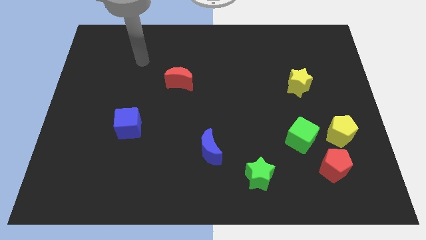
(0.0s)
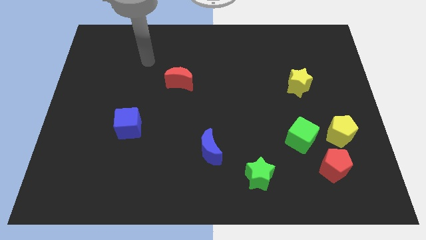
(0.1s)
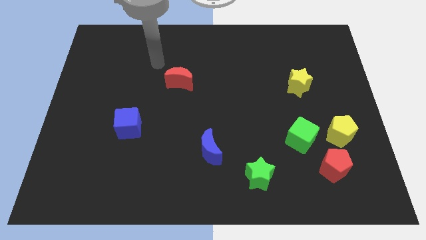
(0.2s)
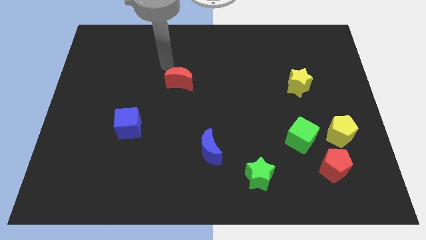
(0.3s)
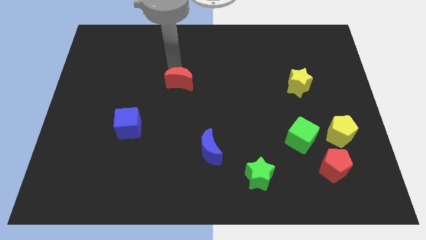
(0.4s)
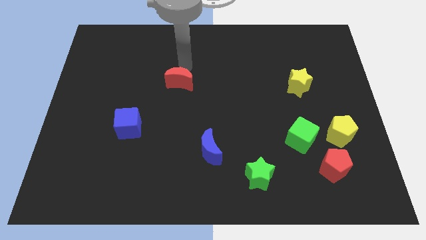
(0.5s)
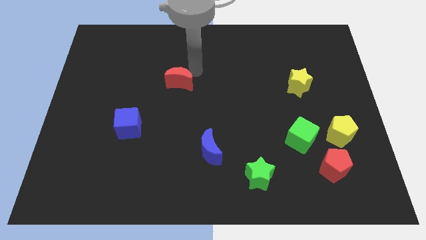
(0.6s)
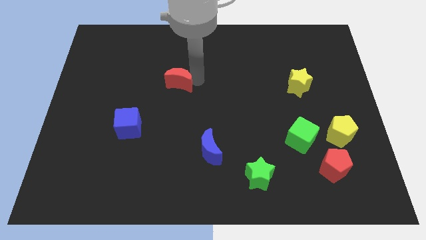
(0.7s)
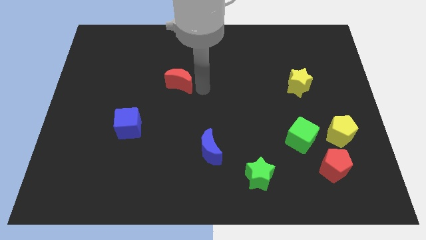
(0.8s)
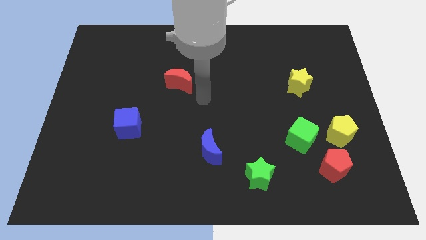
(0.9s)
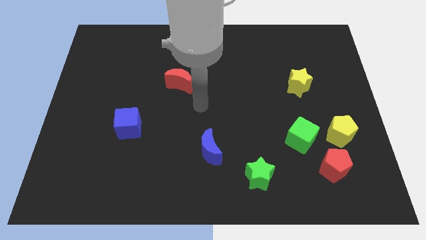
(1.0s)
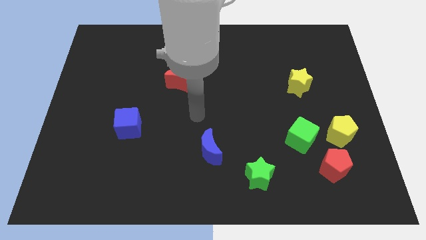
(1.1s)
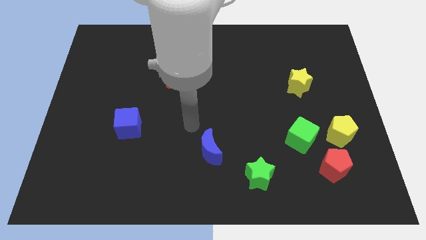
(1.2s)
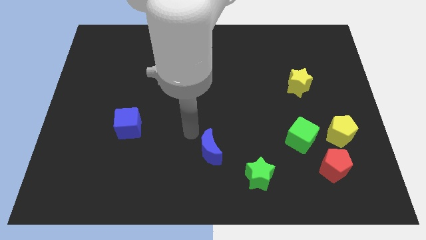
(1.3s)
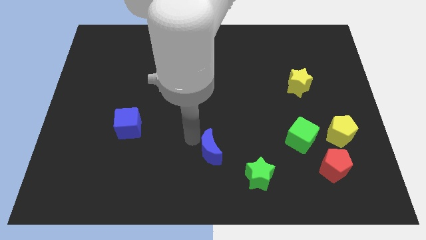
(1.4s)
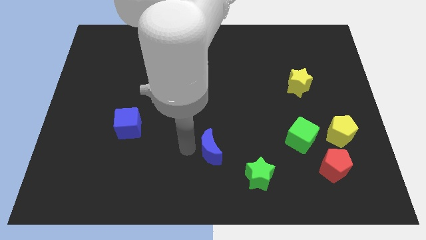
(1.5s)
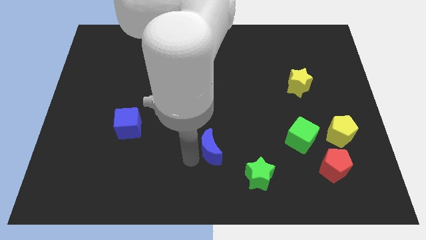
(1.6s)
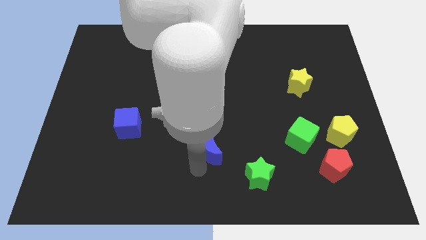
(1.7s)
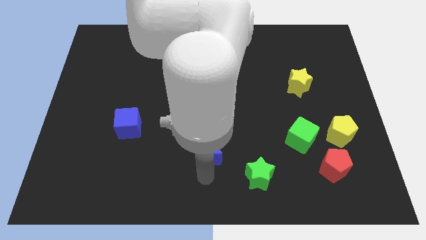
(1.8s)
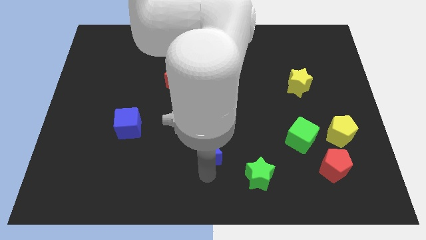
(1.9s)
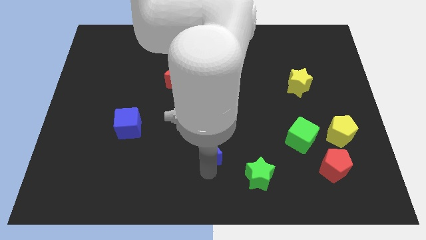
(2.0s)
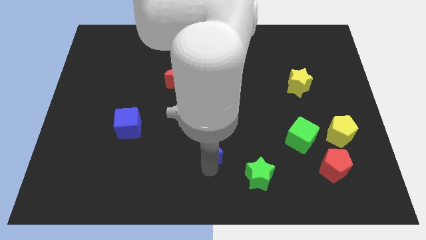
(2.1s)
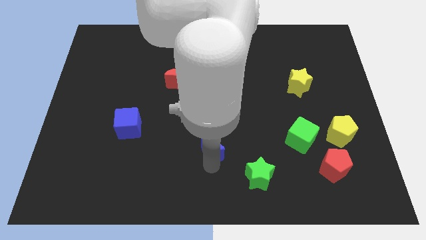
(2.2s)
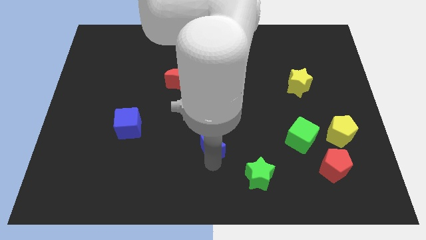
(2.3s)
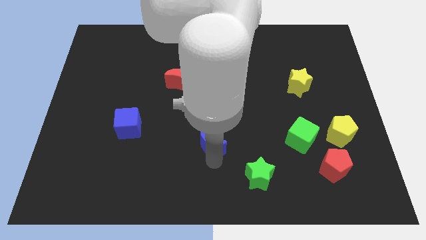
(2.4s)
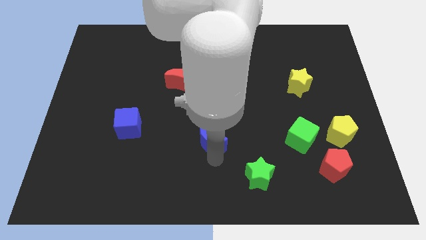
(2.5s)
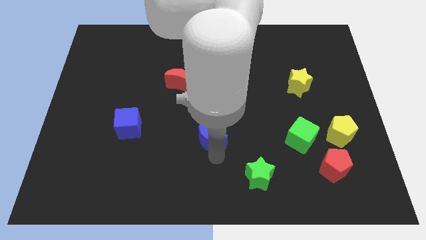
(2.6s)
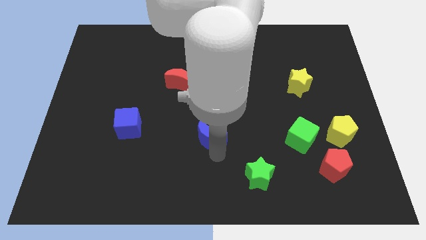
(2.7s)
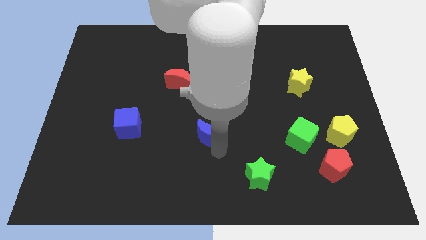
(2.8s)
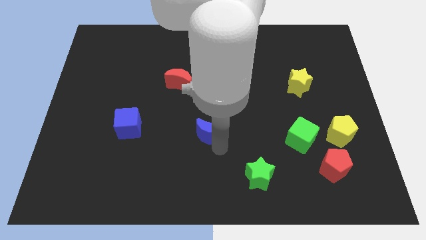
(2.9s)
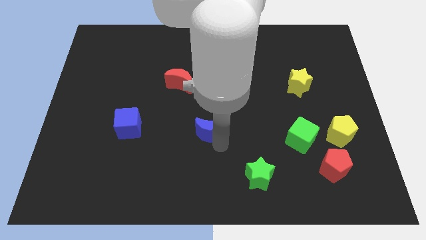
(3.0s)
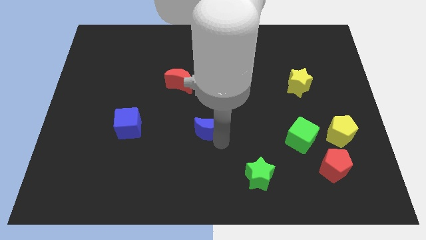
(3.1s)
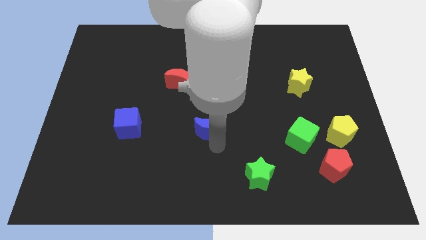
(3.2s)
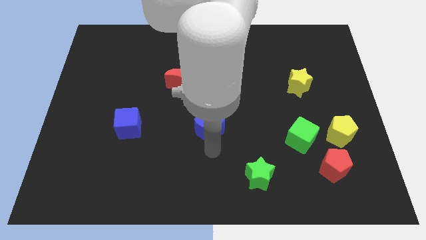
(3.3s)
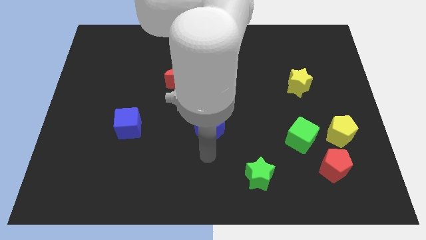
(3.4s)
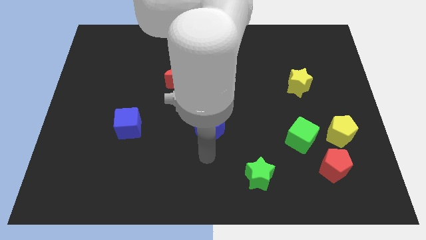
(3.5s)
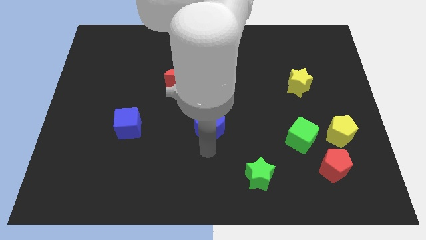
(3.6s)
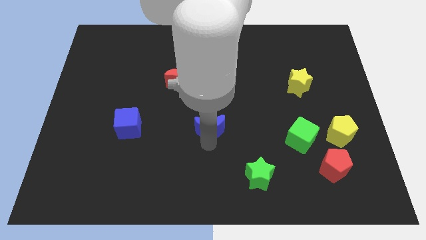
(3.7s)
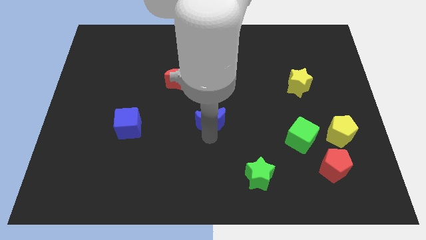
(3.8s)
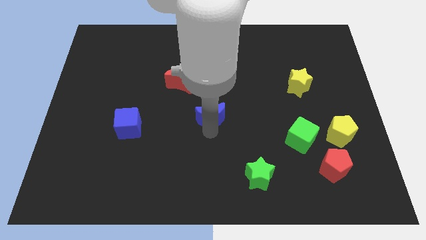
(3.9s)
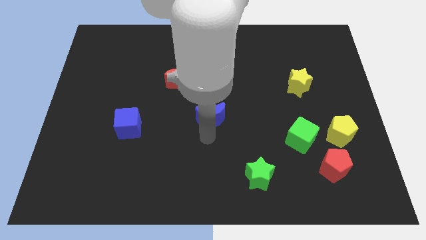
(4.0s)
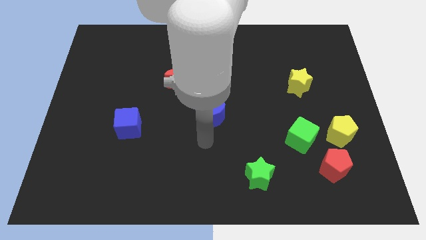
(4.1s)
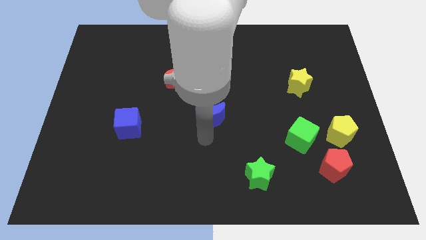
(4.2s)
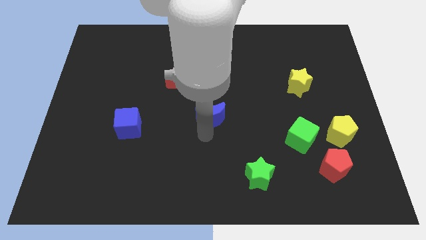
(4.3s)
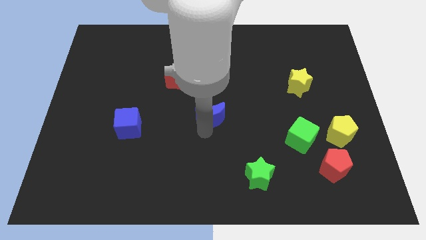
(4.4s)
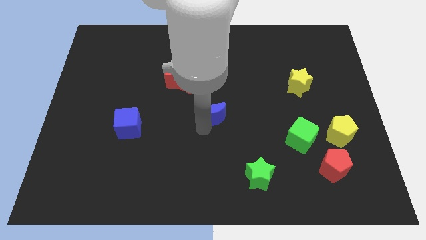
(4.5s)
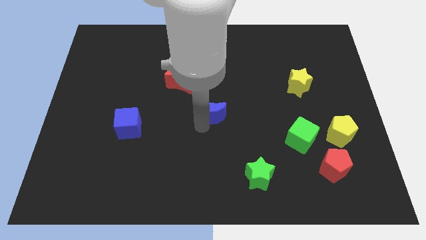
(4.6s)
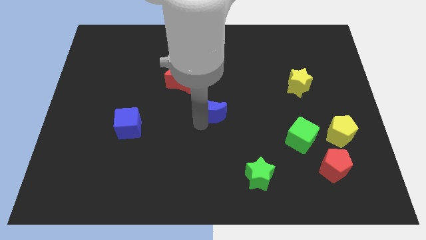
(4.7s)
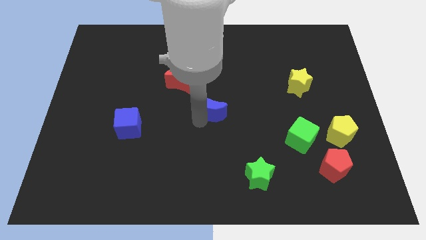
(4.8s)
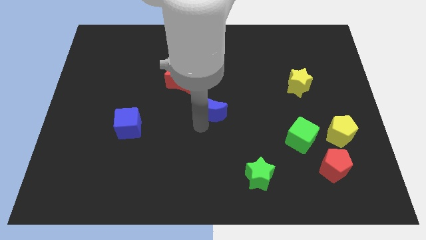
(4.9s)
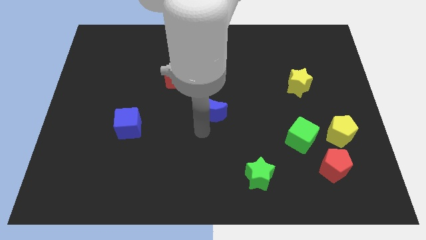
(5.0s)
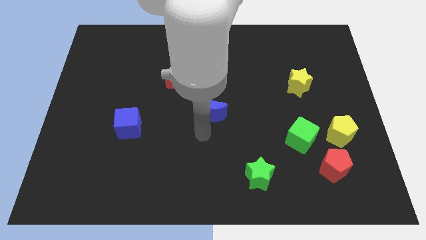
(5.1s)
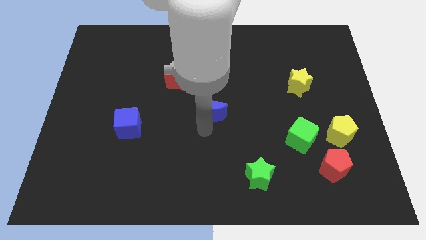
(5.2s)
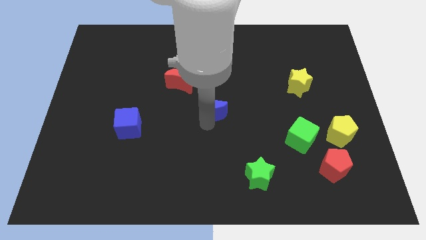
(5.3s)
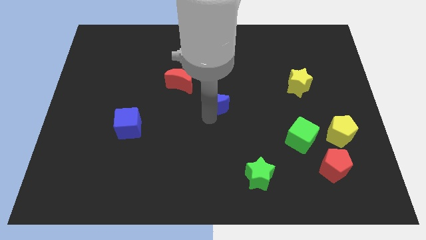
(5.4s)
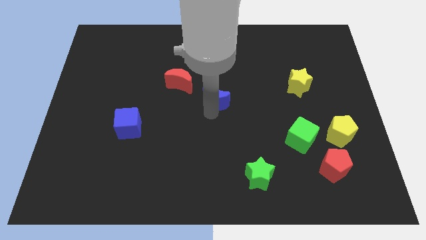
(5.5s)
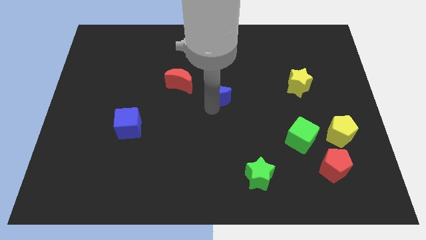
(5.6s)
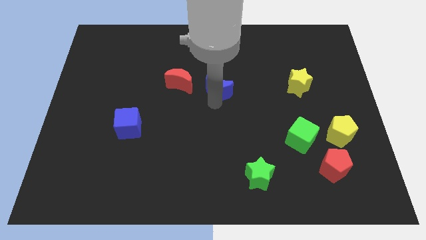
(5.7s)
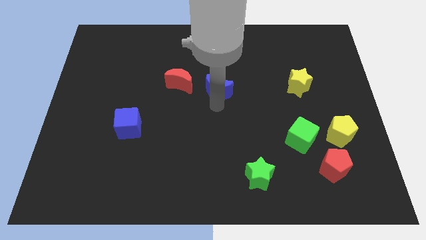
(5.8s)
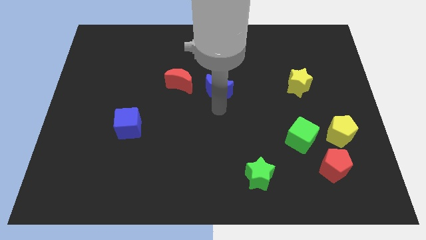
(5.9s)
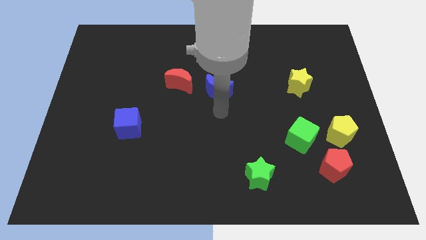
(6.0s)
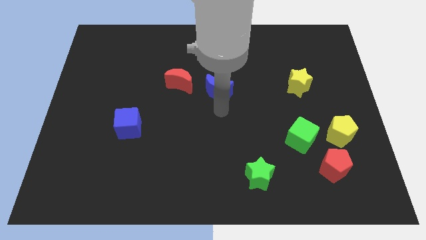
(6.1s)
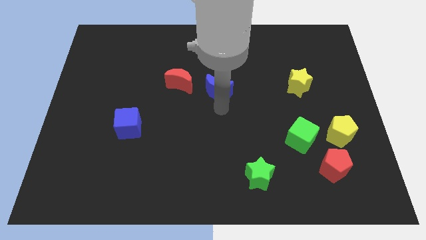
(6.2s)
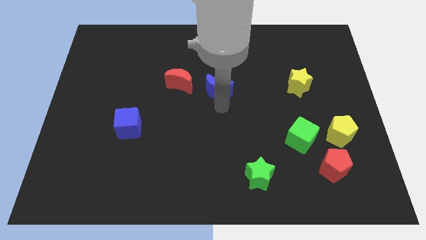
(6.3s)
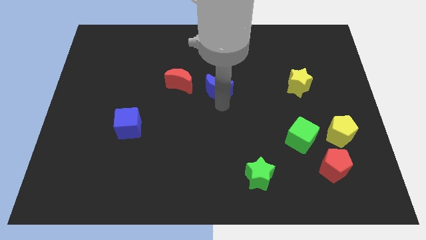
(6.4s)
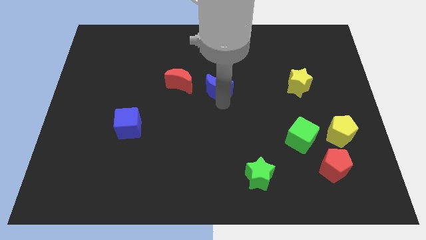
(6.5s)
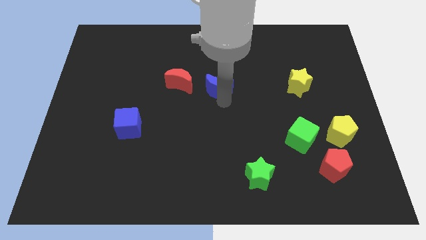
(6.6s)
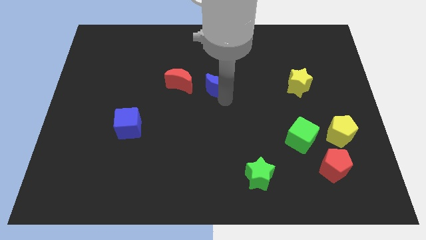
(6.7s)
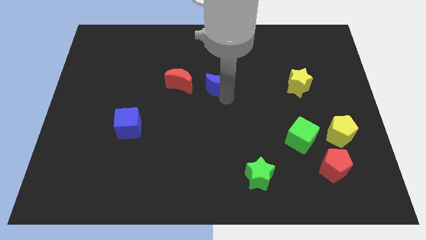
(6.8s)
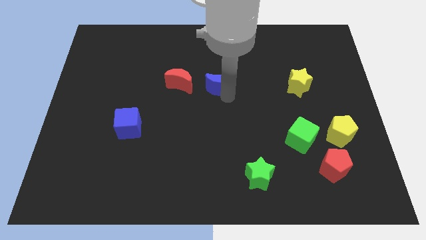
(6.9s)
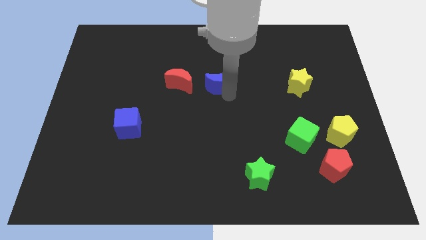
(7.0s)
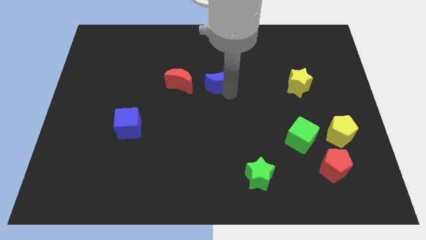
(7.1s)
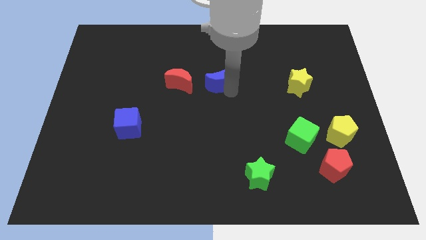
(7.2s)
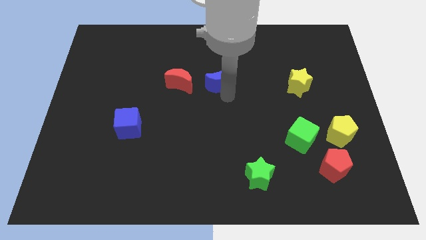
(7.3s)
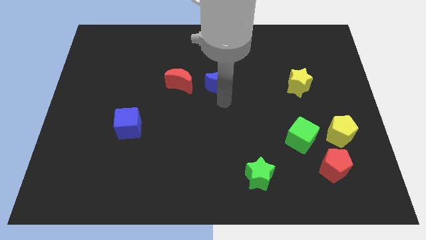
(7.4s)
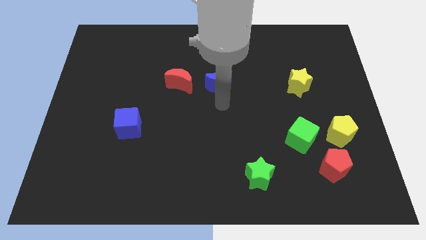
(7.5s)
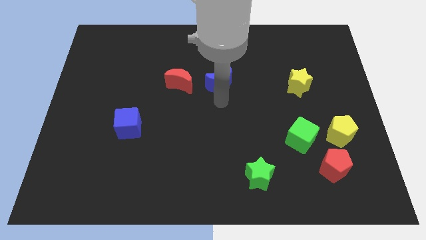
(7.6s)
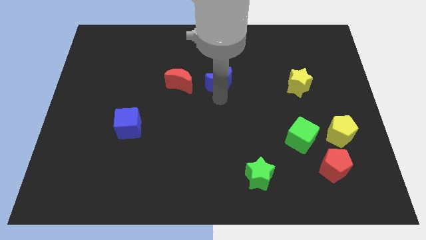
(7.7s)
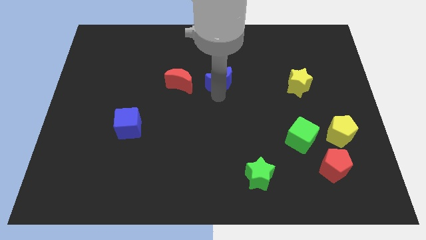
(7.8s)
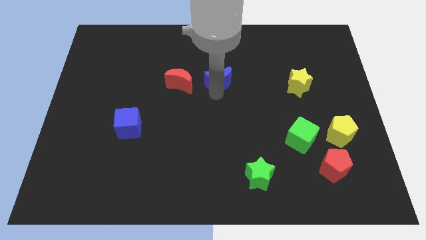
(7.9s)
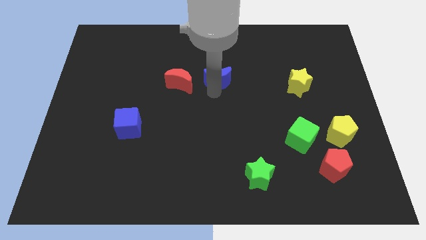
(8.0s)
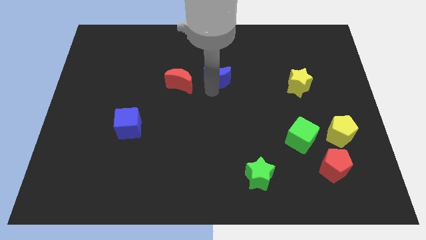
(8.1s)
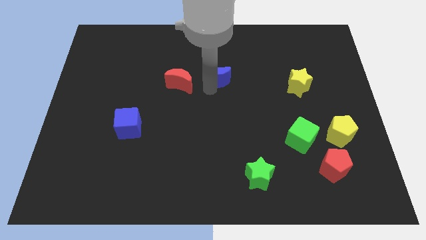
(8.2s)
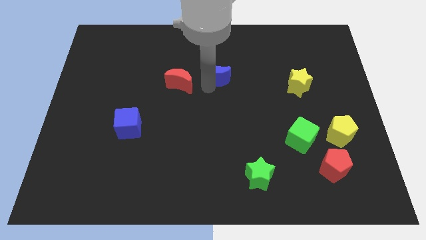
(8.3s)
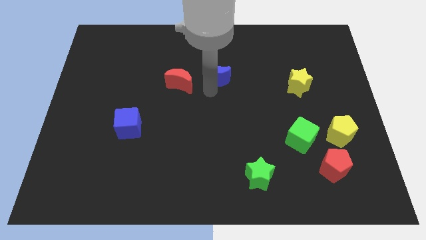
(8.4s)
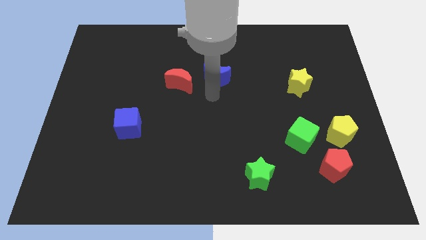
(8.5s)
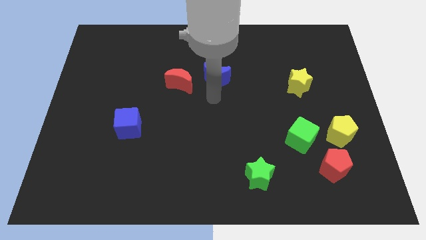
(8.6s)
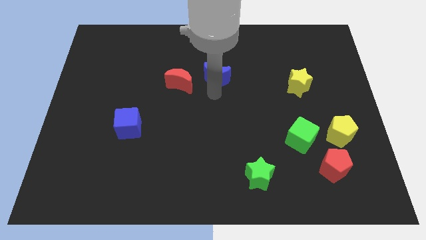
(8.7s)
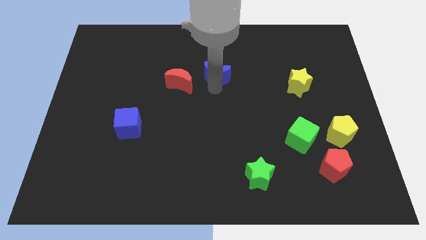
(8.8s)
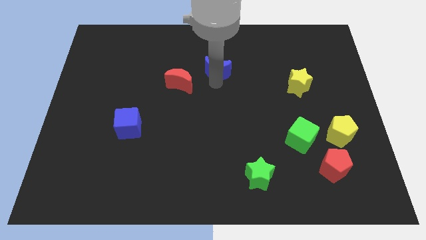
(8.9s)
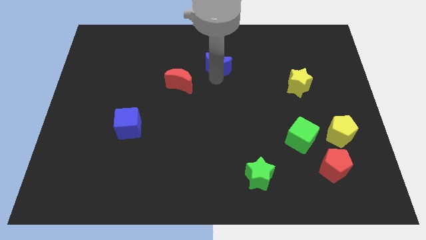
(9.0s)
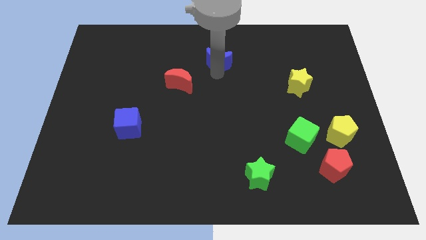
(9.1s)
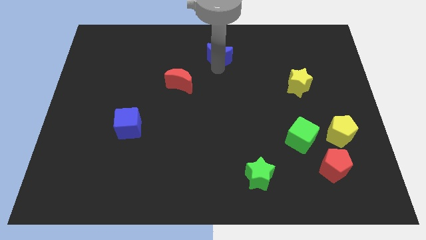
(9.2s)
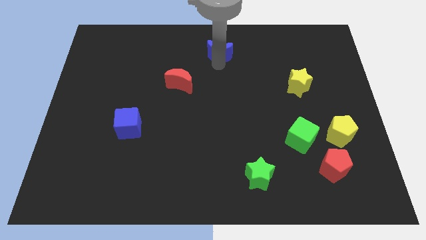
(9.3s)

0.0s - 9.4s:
put the blue moon to the top side
